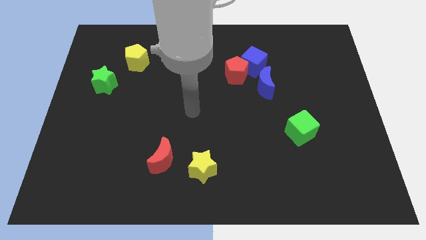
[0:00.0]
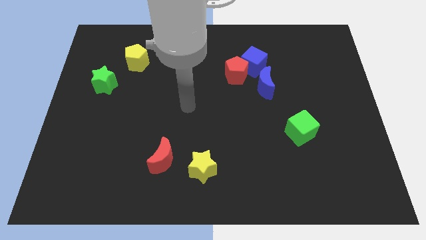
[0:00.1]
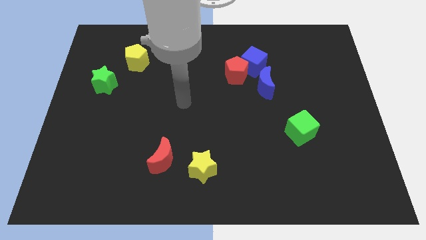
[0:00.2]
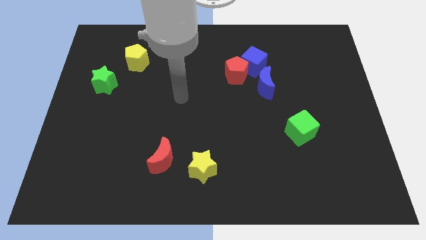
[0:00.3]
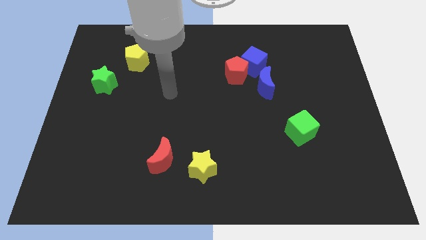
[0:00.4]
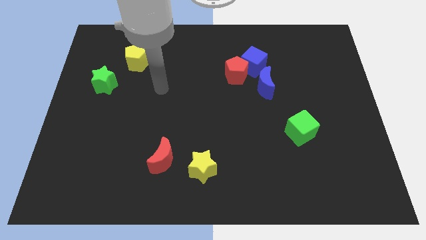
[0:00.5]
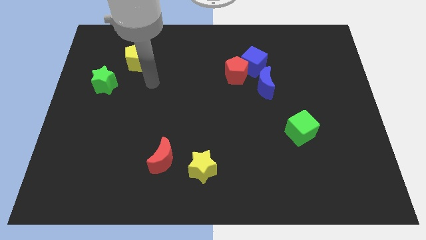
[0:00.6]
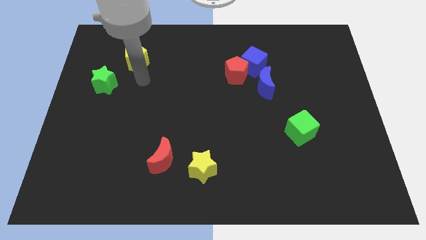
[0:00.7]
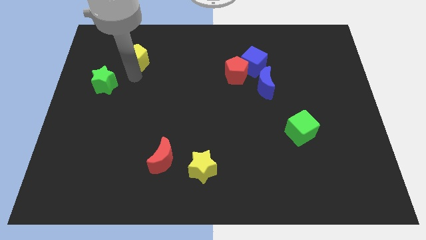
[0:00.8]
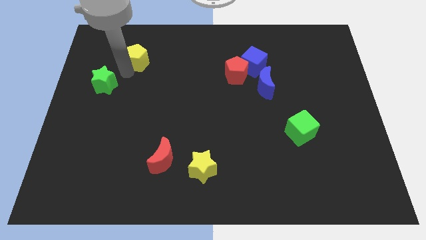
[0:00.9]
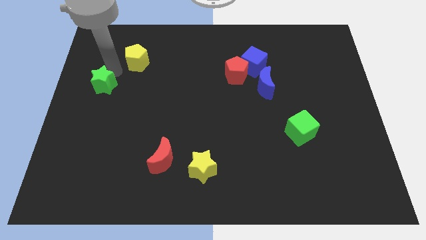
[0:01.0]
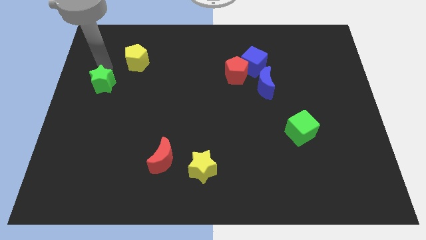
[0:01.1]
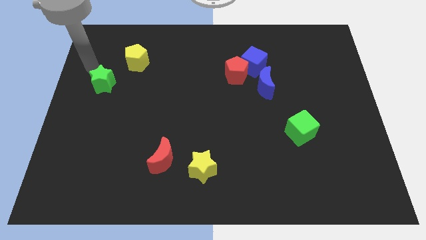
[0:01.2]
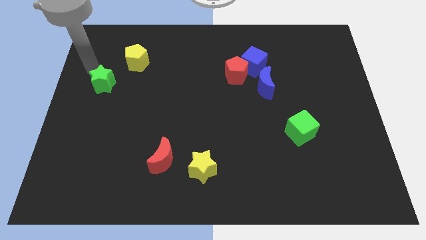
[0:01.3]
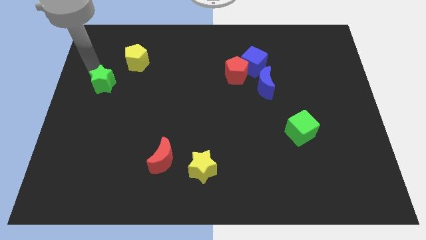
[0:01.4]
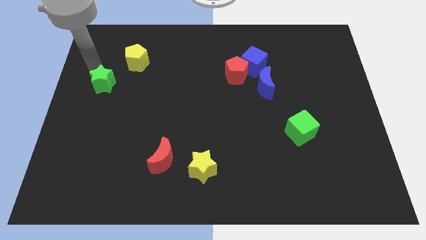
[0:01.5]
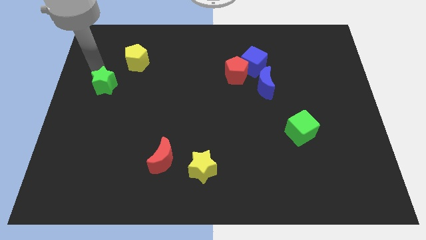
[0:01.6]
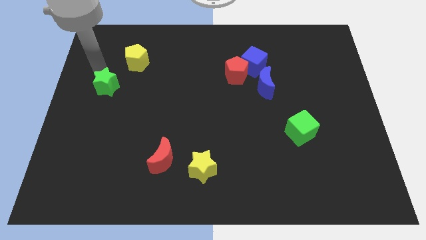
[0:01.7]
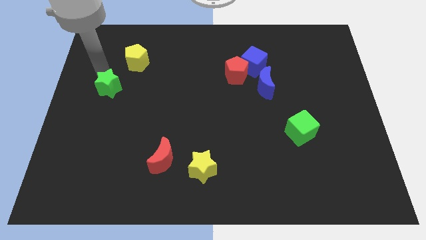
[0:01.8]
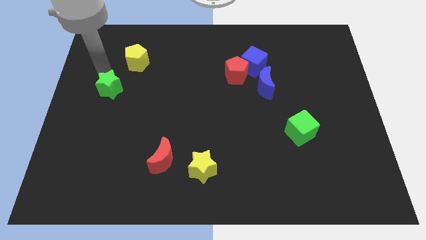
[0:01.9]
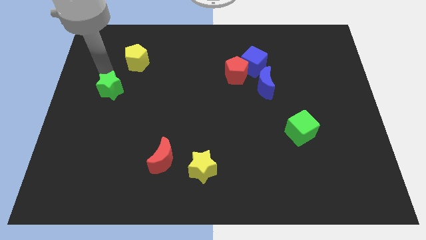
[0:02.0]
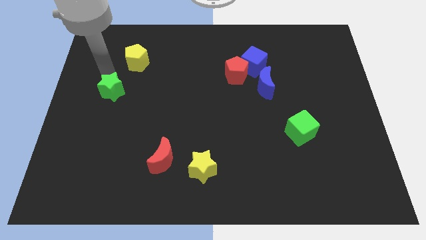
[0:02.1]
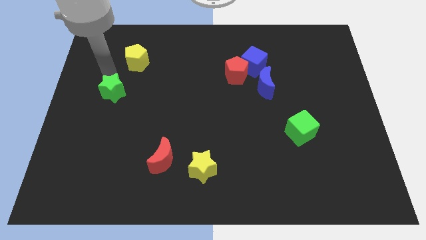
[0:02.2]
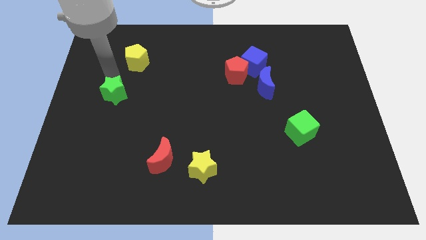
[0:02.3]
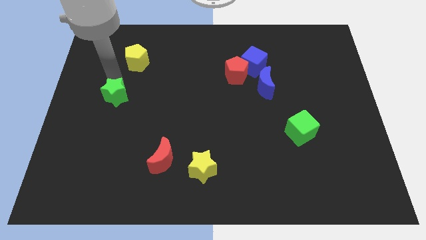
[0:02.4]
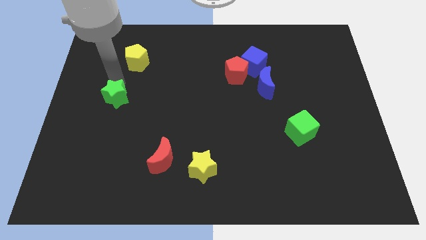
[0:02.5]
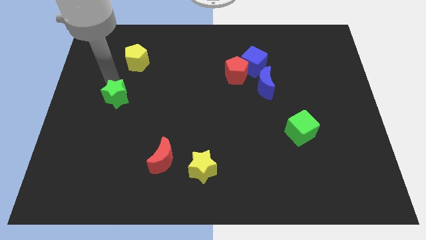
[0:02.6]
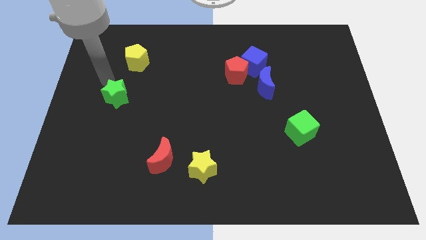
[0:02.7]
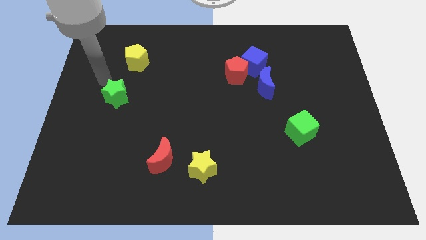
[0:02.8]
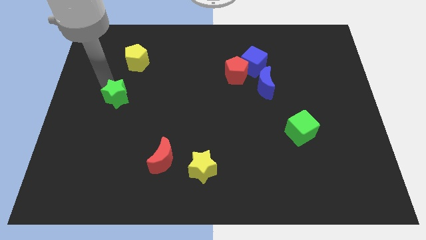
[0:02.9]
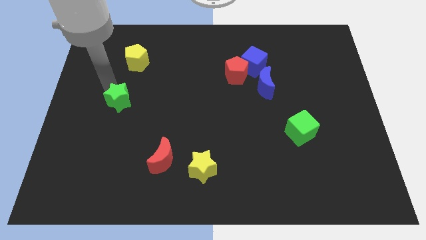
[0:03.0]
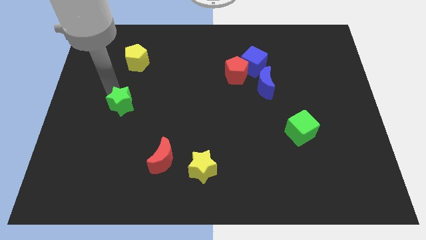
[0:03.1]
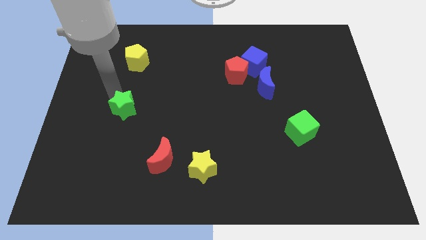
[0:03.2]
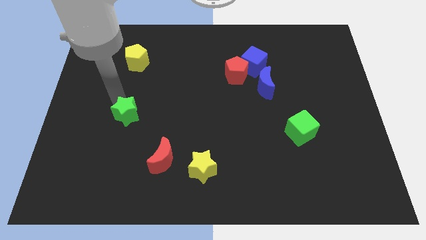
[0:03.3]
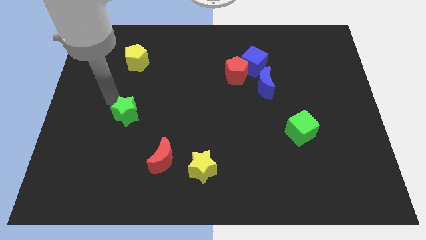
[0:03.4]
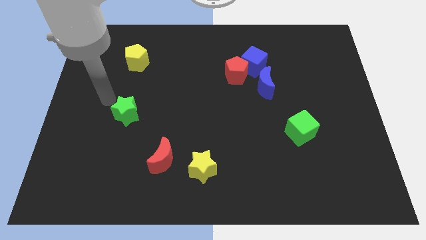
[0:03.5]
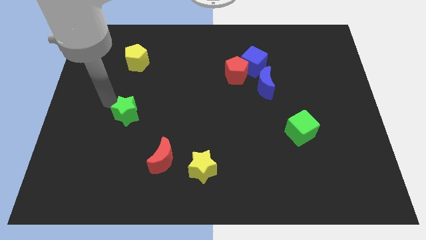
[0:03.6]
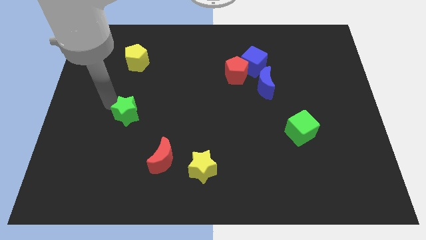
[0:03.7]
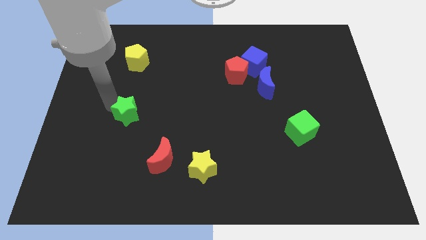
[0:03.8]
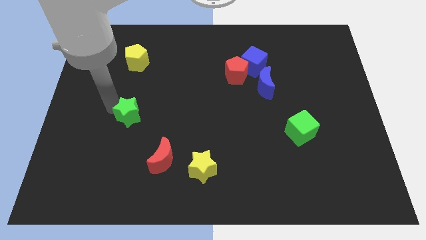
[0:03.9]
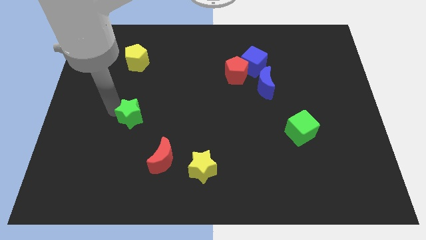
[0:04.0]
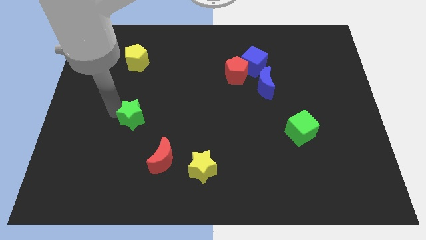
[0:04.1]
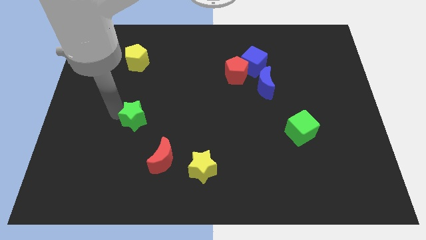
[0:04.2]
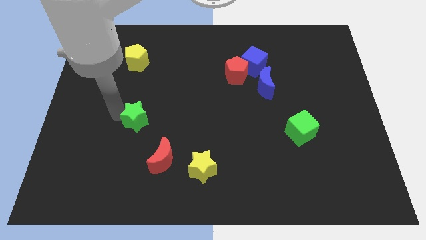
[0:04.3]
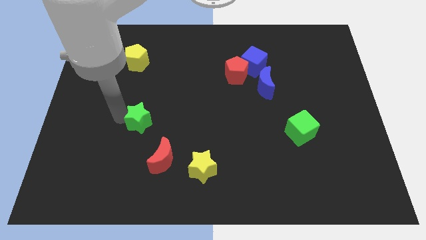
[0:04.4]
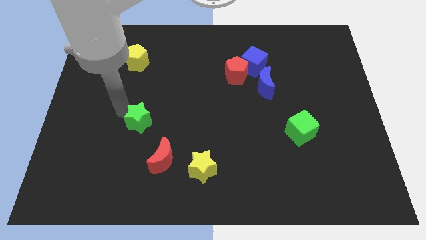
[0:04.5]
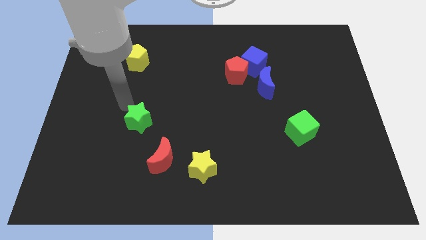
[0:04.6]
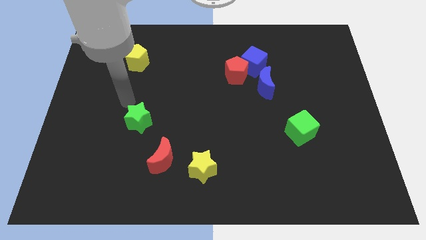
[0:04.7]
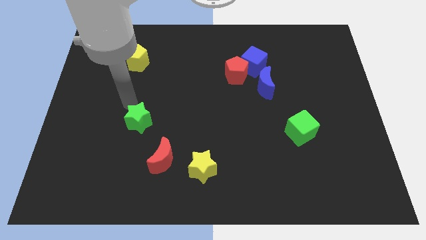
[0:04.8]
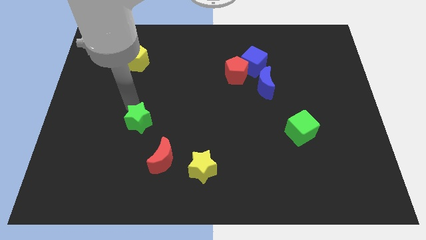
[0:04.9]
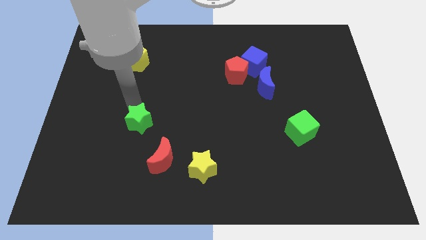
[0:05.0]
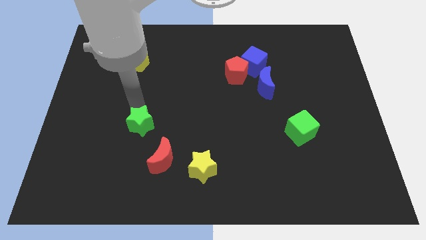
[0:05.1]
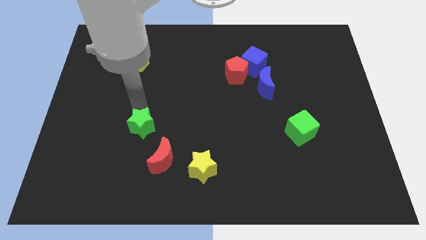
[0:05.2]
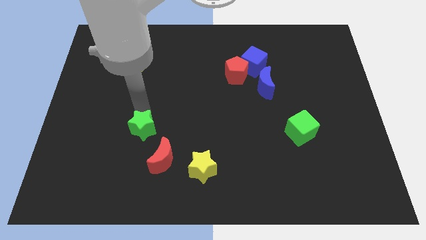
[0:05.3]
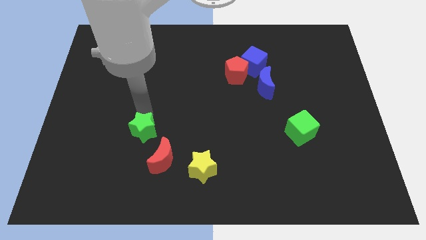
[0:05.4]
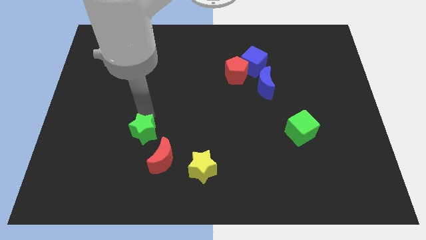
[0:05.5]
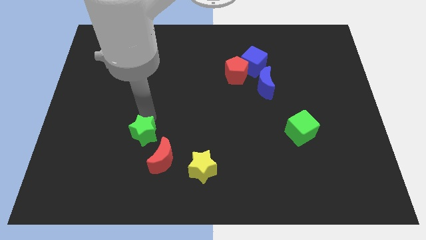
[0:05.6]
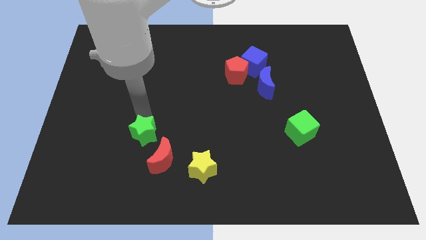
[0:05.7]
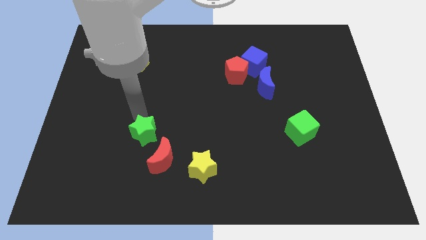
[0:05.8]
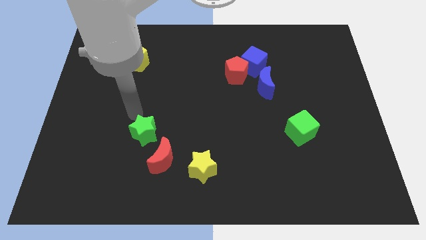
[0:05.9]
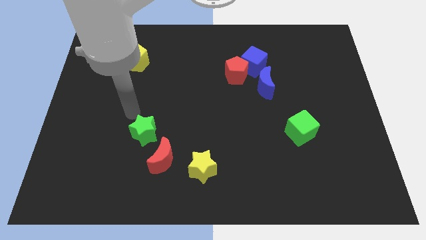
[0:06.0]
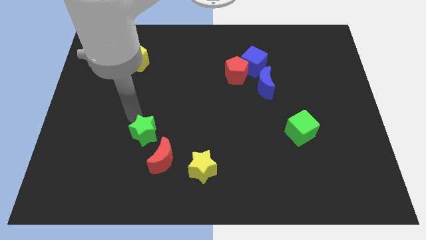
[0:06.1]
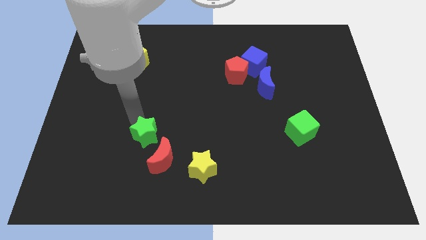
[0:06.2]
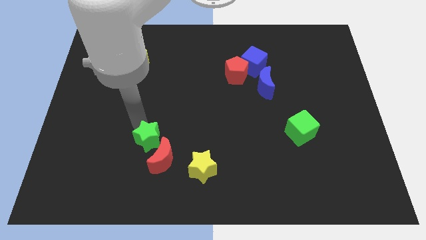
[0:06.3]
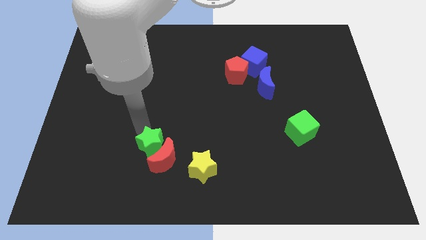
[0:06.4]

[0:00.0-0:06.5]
slide the green star next to the red moon

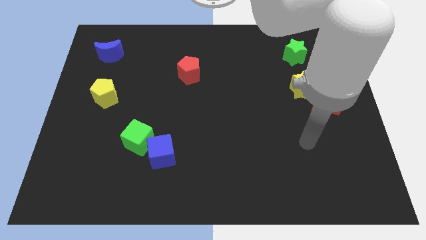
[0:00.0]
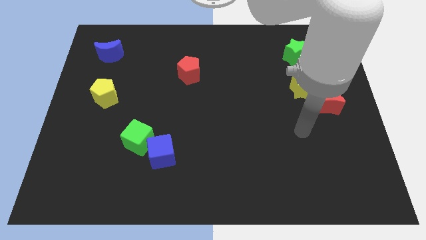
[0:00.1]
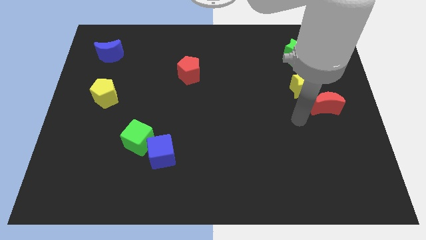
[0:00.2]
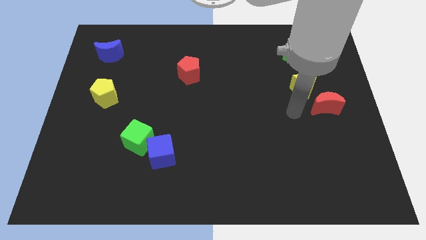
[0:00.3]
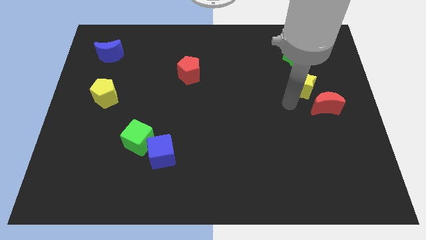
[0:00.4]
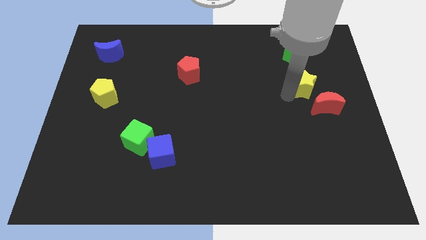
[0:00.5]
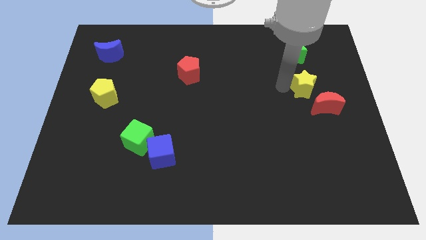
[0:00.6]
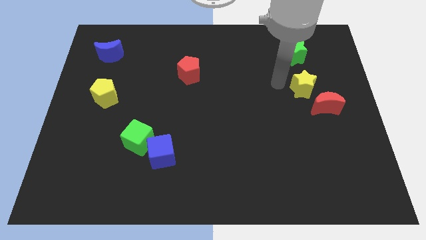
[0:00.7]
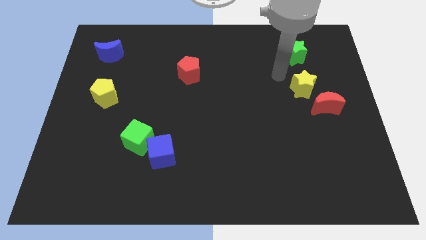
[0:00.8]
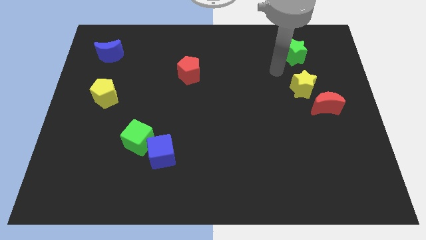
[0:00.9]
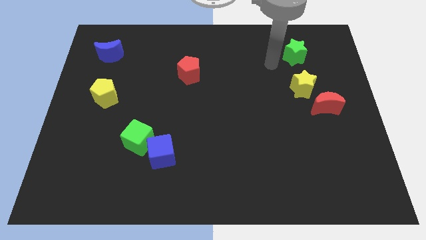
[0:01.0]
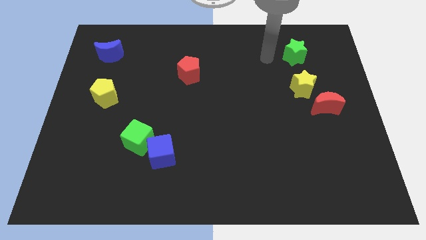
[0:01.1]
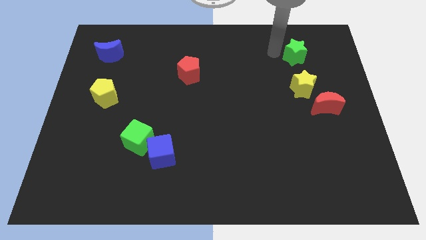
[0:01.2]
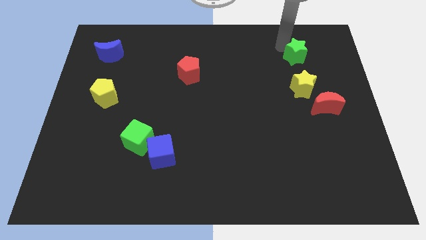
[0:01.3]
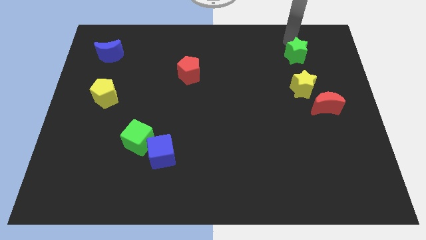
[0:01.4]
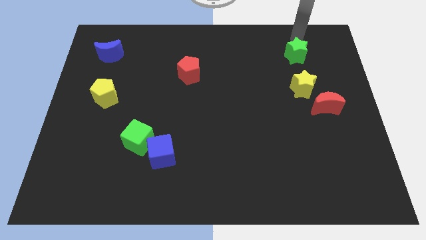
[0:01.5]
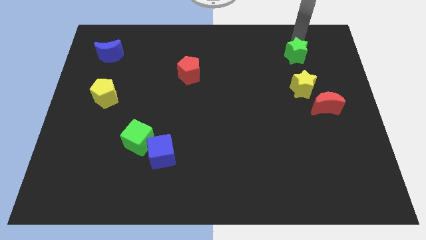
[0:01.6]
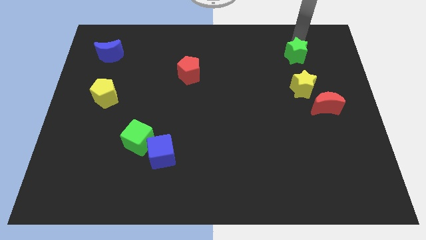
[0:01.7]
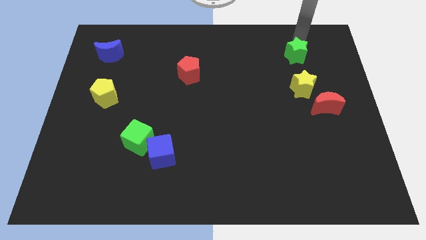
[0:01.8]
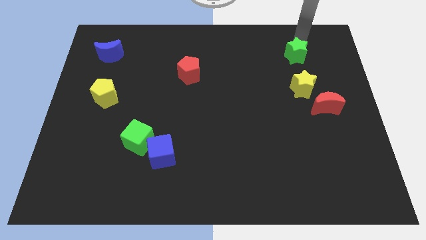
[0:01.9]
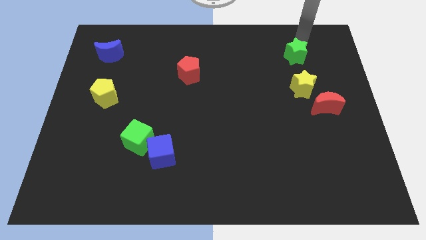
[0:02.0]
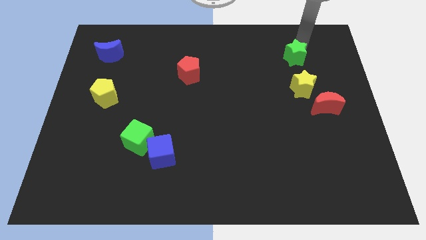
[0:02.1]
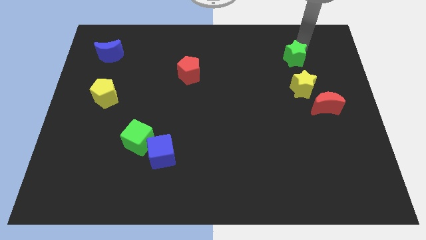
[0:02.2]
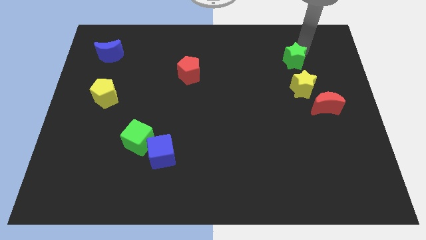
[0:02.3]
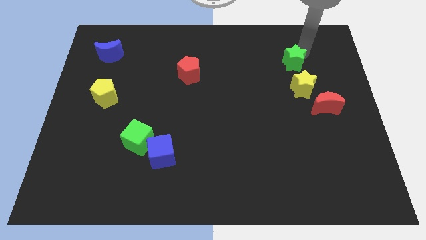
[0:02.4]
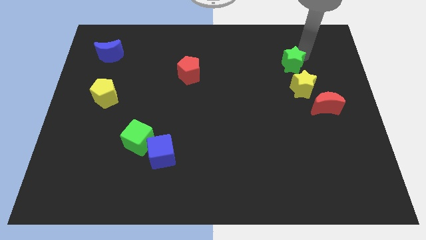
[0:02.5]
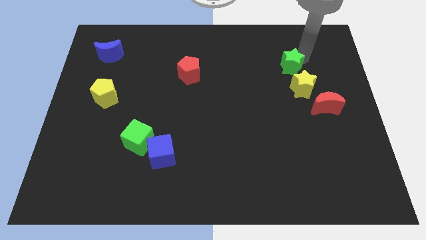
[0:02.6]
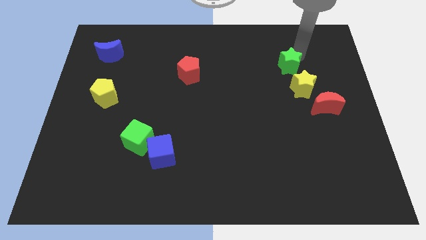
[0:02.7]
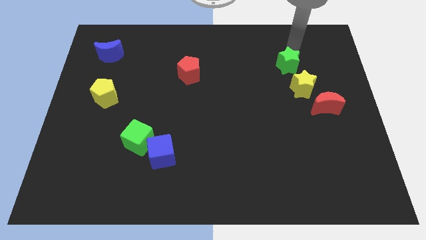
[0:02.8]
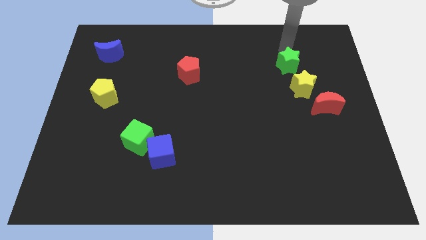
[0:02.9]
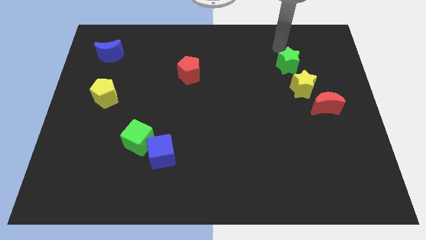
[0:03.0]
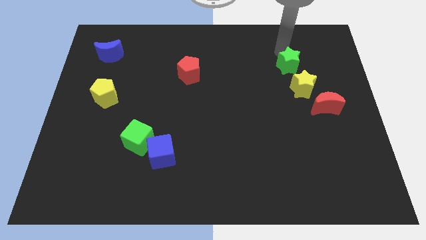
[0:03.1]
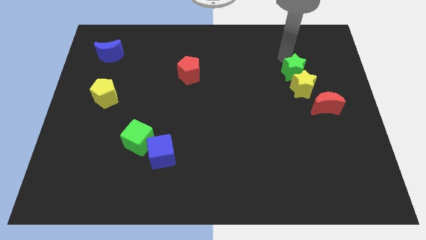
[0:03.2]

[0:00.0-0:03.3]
move the green star to the yellow star
